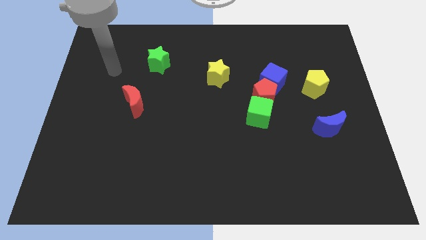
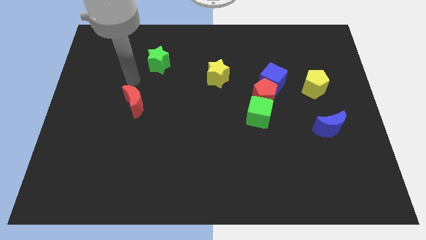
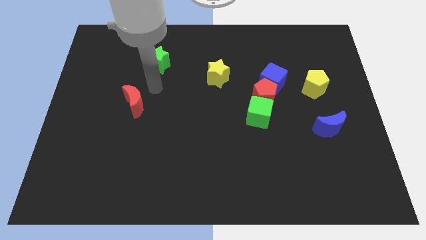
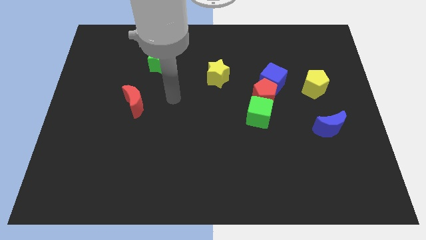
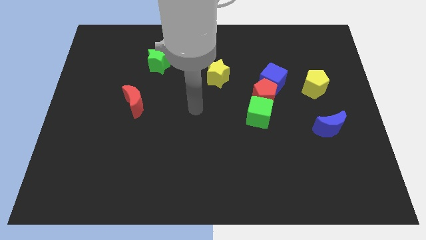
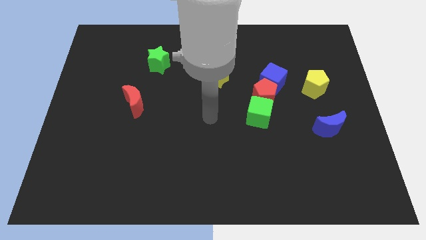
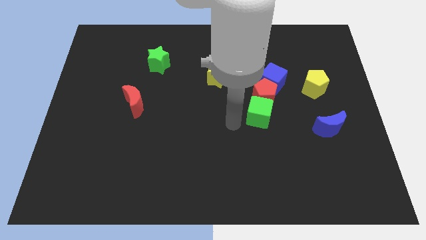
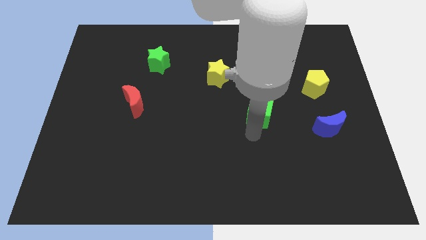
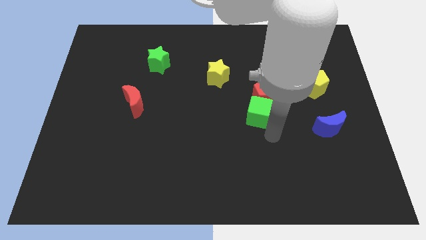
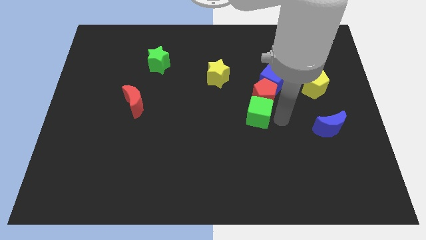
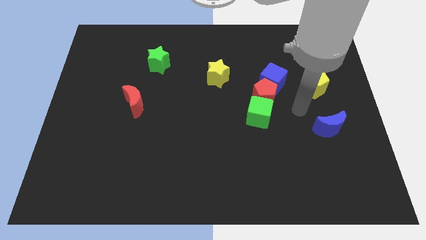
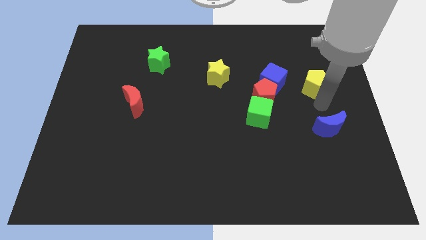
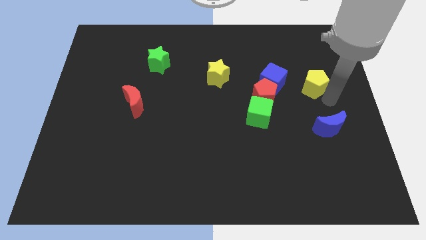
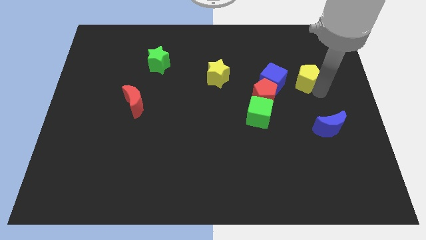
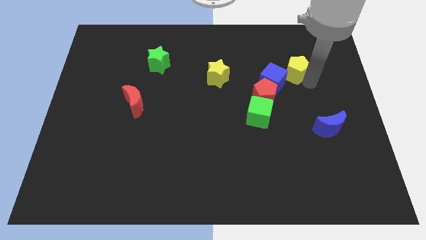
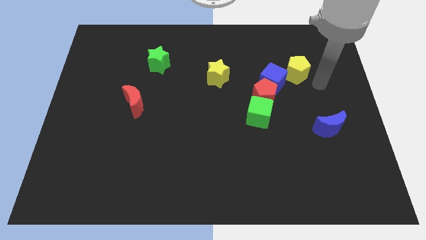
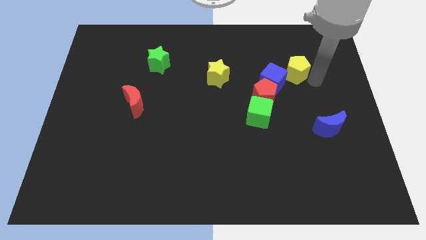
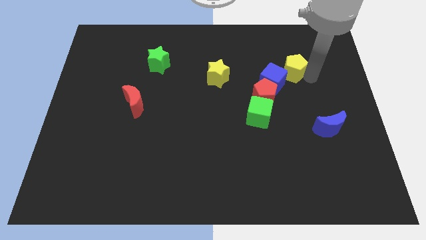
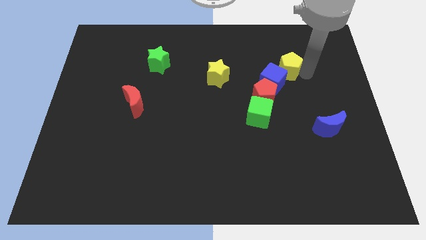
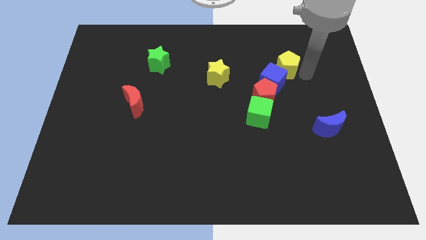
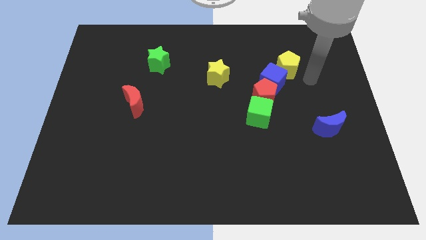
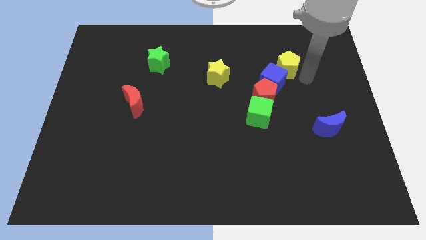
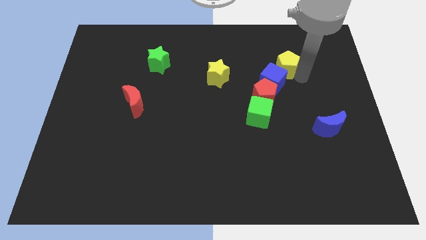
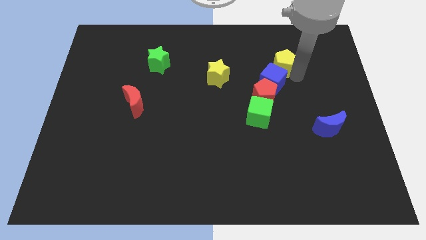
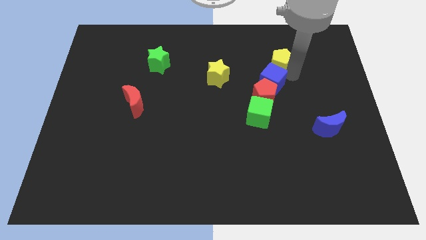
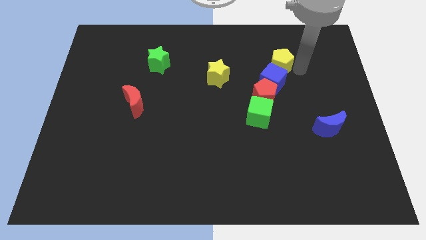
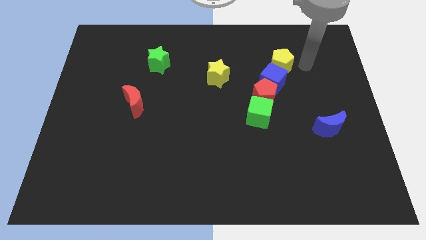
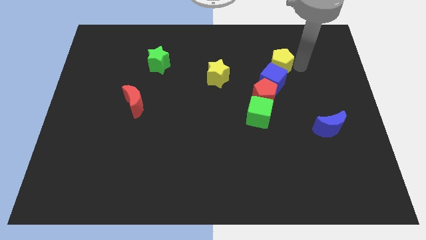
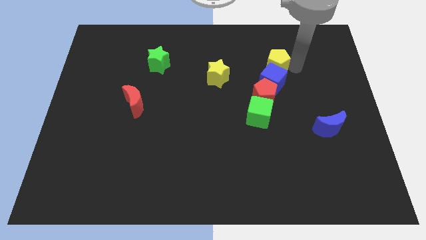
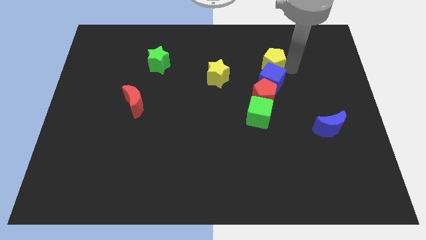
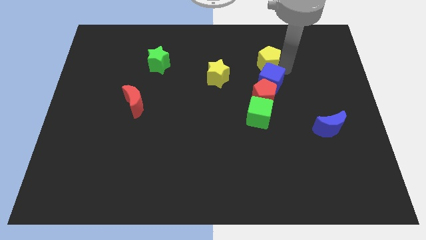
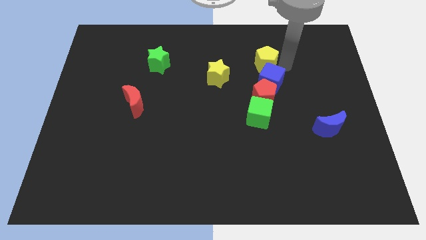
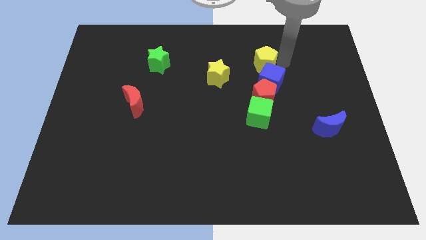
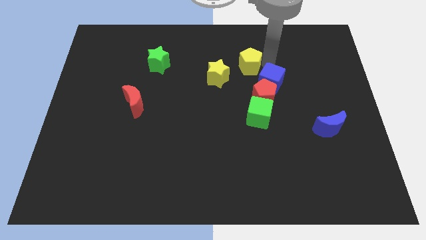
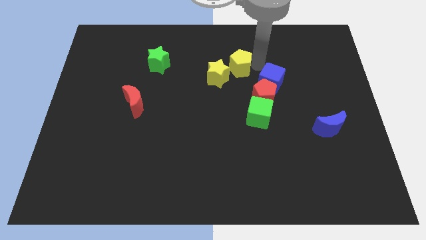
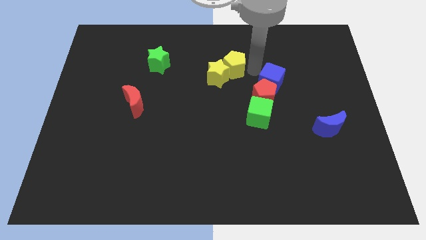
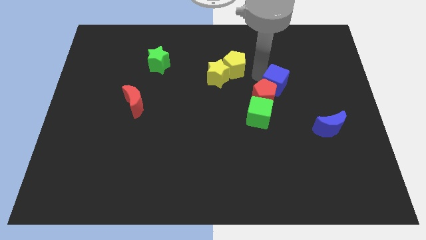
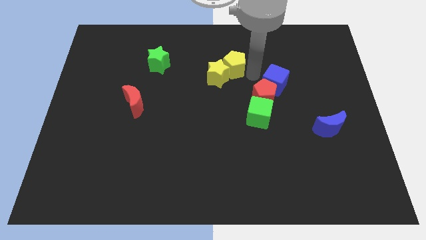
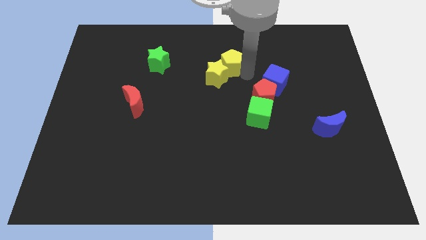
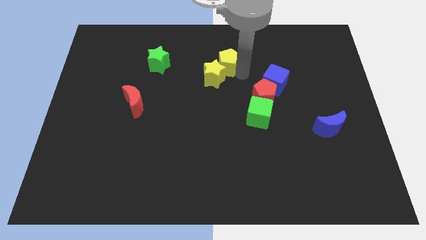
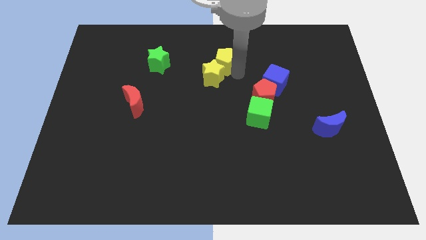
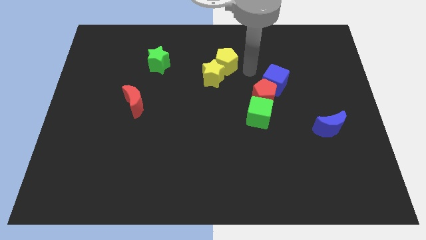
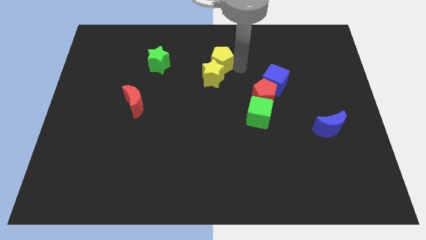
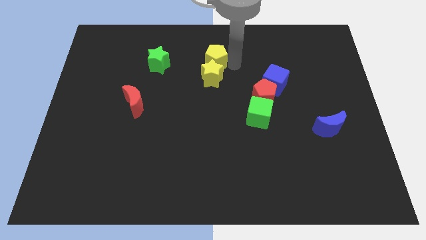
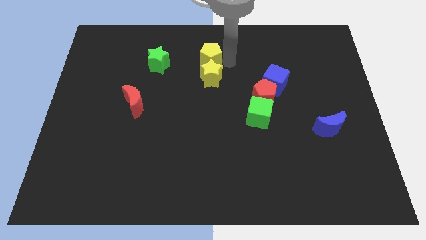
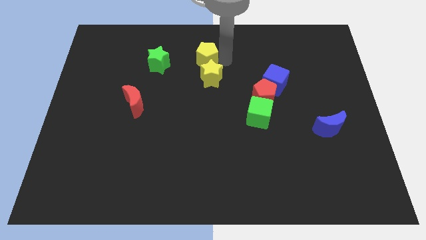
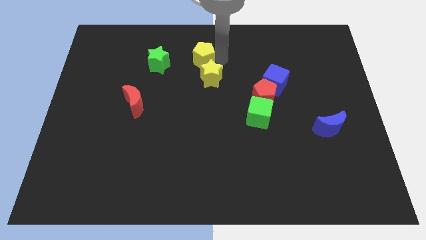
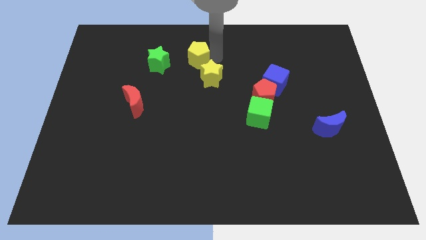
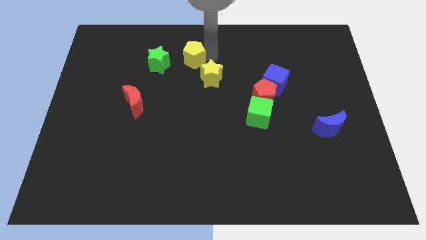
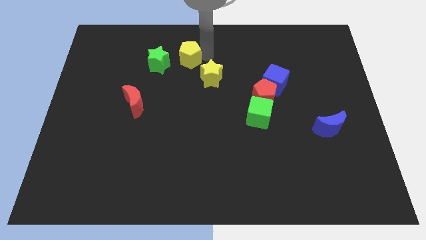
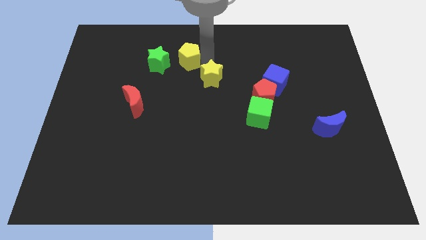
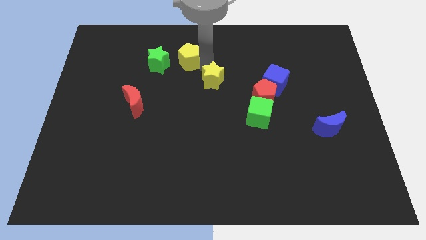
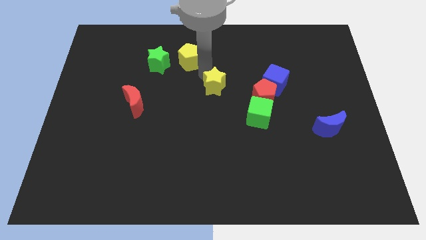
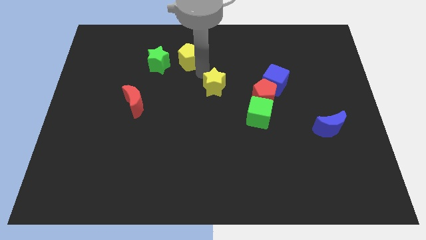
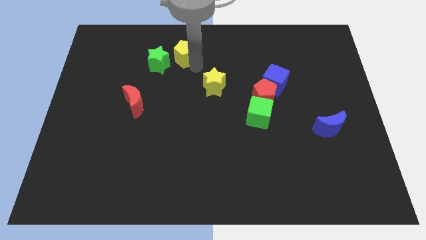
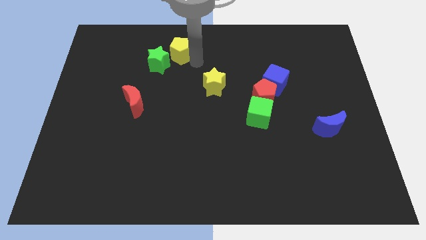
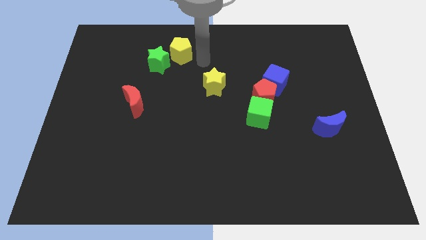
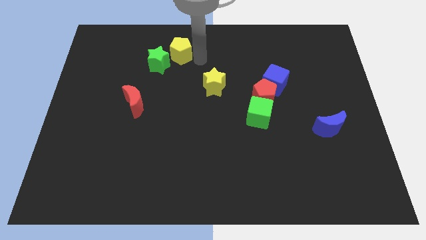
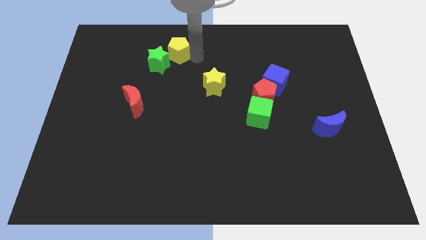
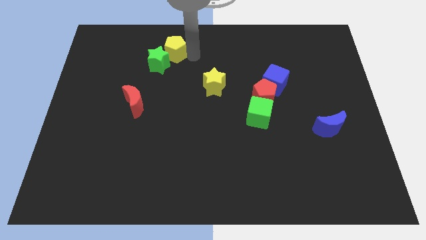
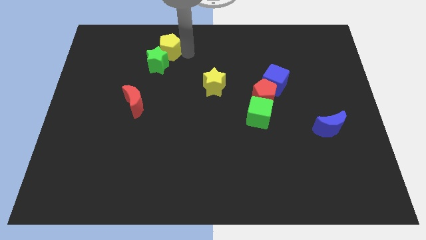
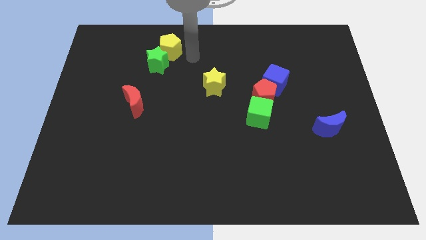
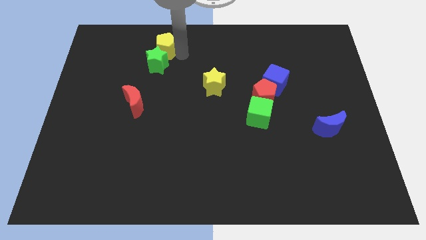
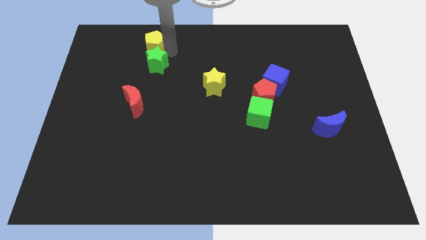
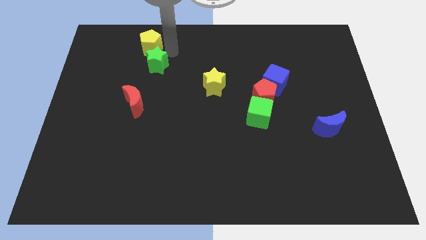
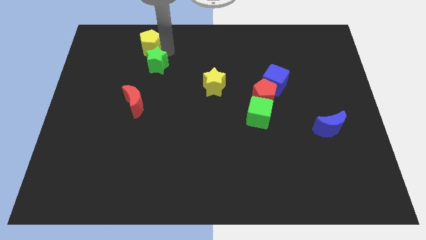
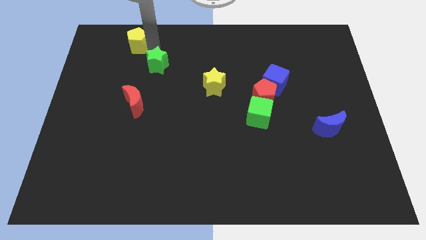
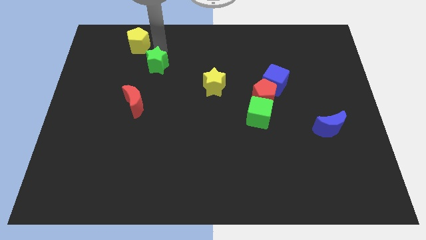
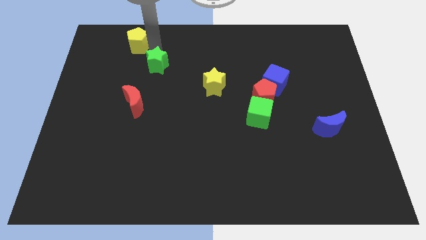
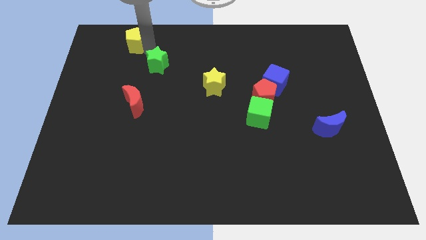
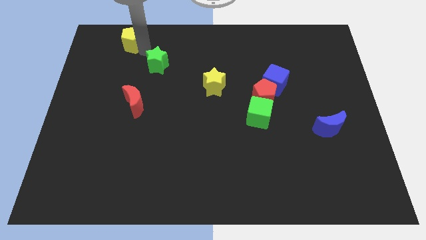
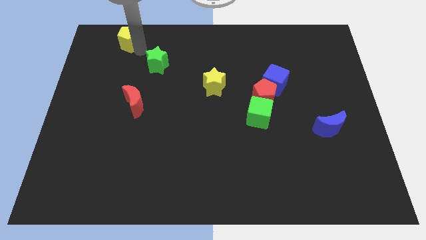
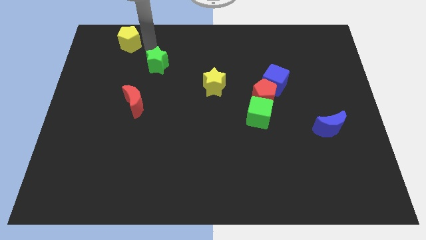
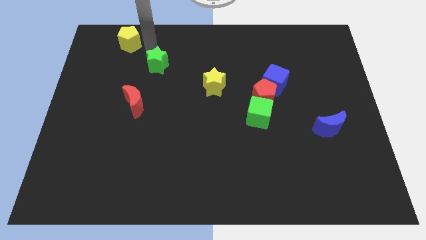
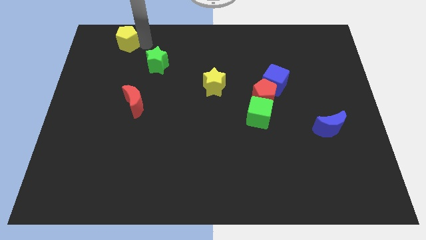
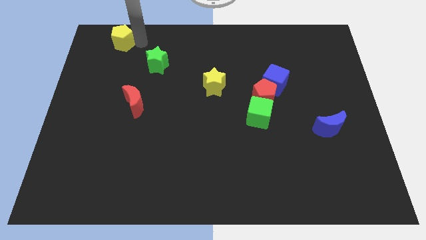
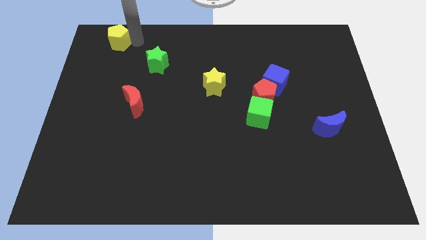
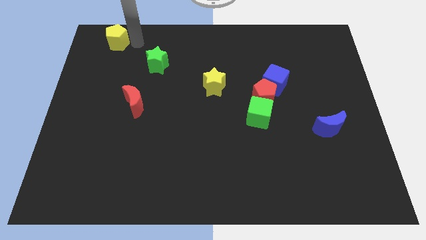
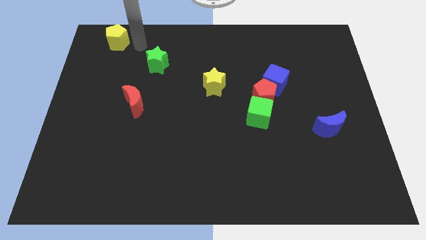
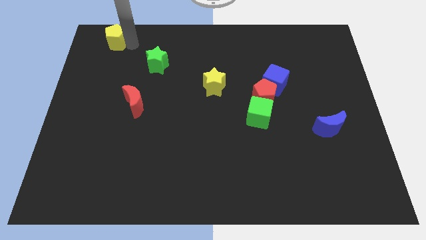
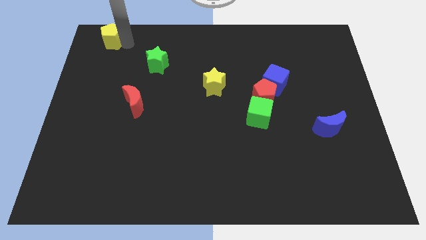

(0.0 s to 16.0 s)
slide the yellow pentagon to the top left
